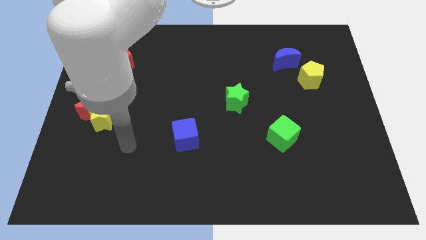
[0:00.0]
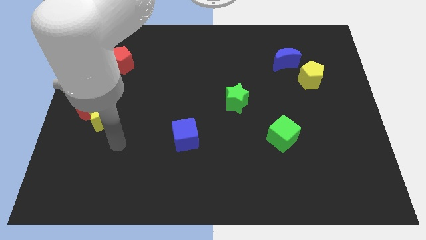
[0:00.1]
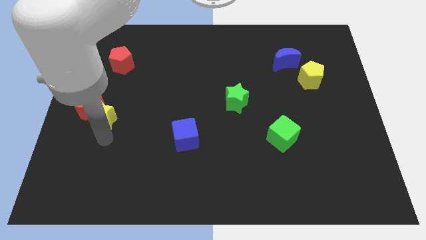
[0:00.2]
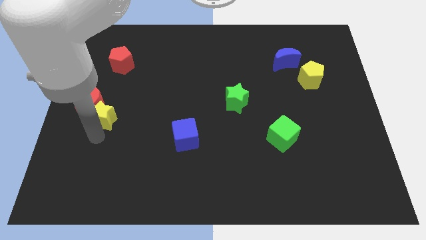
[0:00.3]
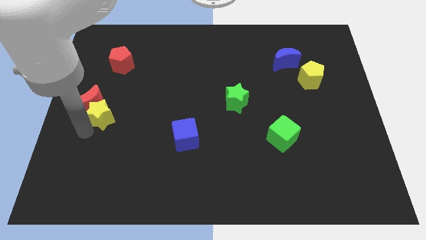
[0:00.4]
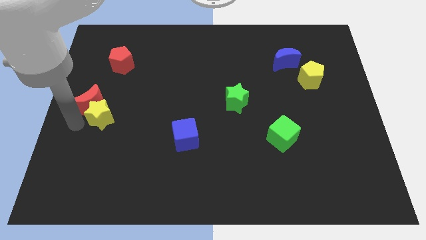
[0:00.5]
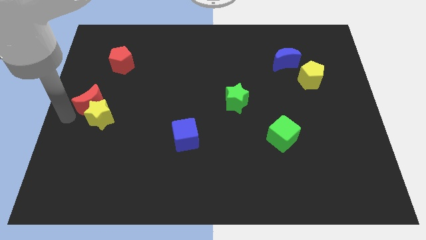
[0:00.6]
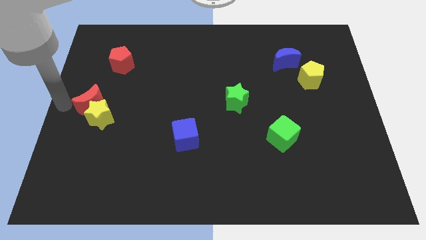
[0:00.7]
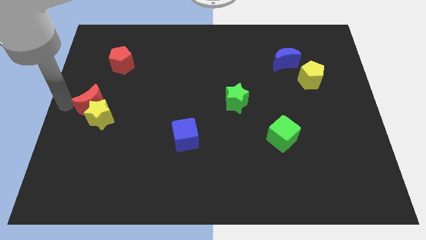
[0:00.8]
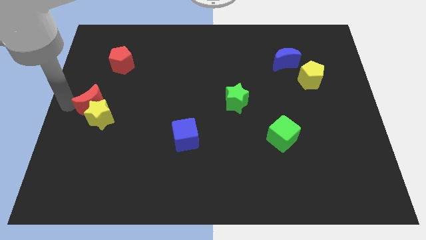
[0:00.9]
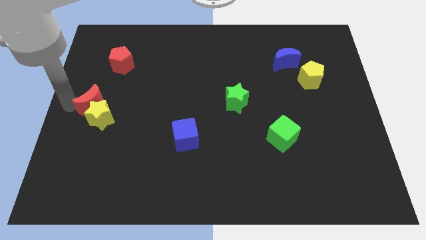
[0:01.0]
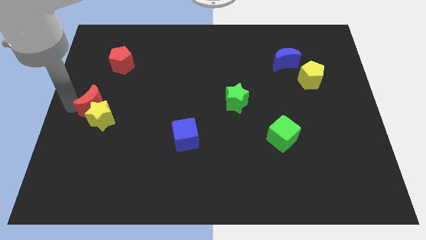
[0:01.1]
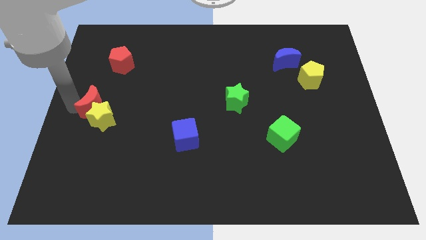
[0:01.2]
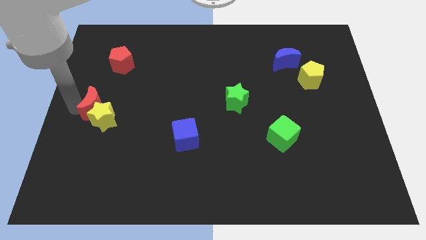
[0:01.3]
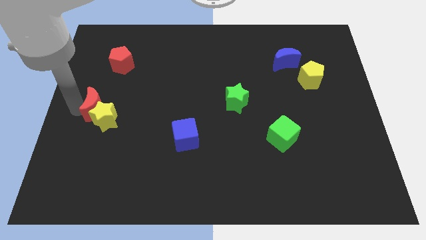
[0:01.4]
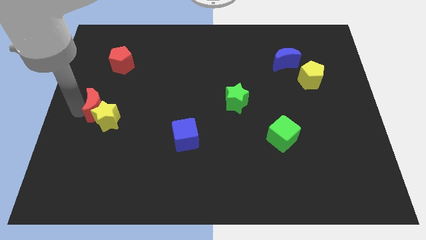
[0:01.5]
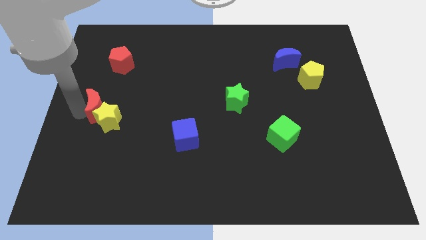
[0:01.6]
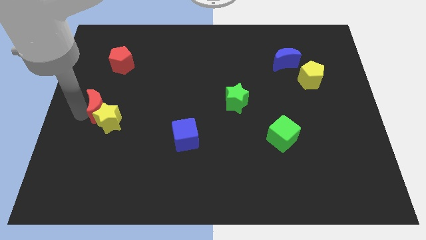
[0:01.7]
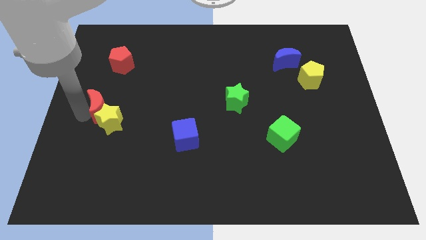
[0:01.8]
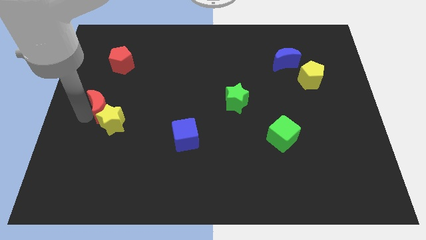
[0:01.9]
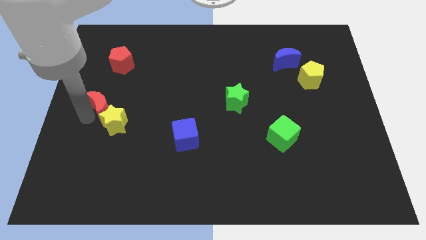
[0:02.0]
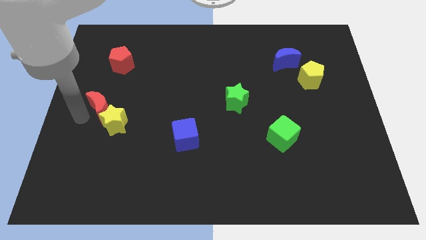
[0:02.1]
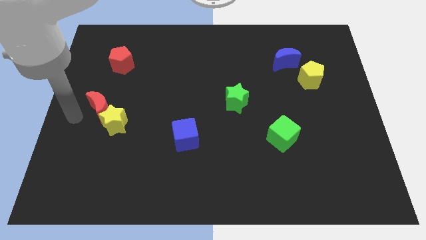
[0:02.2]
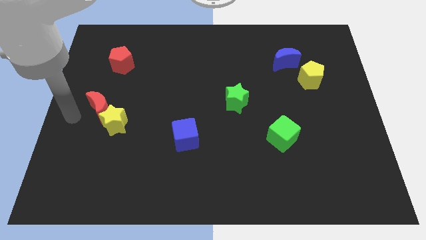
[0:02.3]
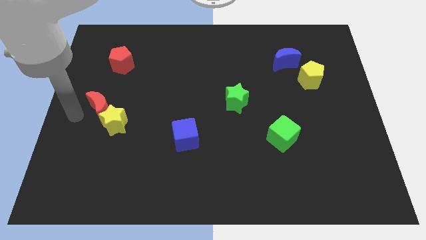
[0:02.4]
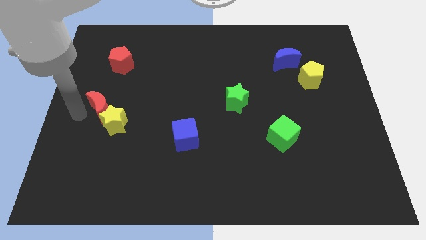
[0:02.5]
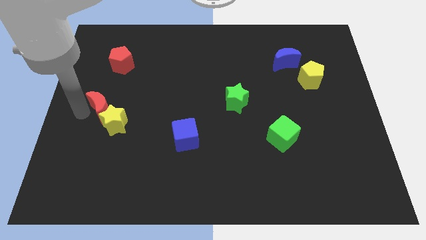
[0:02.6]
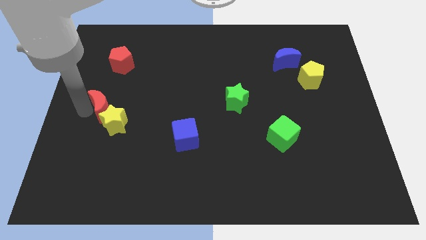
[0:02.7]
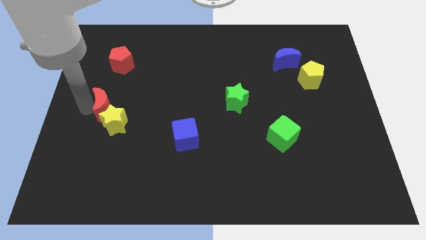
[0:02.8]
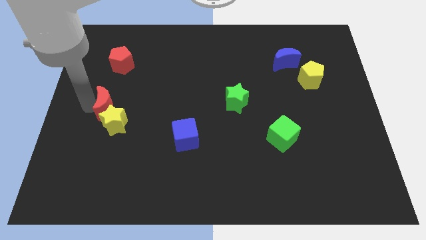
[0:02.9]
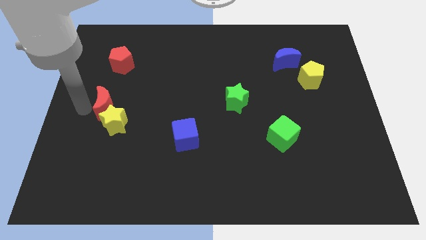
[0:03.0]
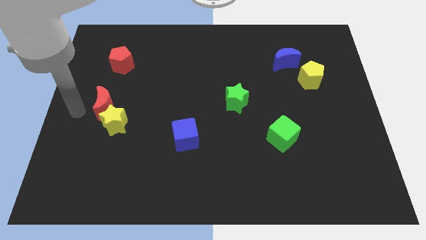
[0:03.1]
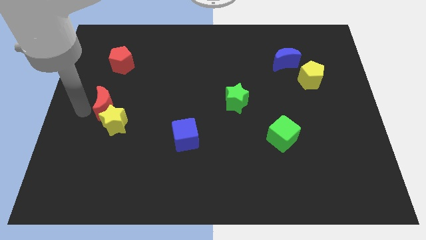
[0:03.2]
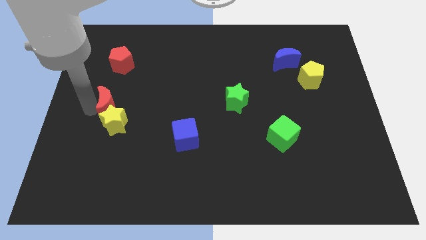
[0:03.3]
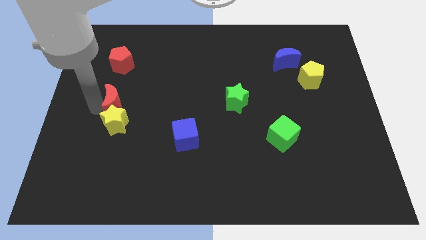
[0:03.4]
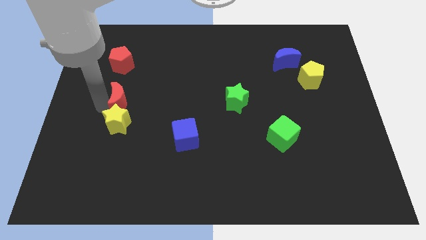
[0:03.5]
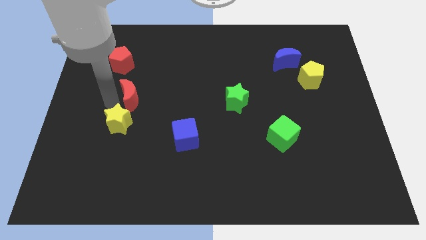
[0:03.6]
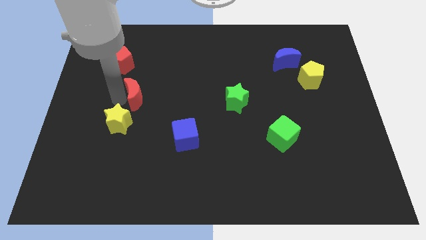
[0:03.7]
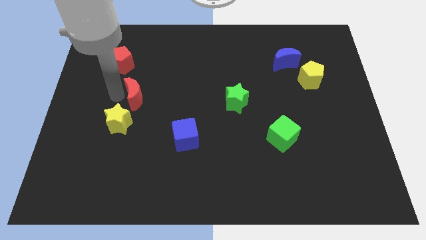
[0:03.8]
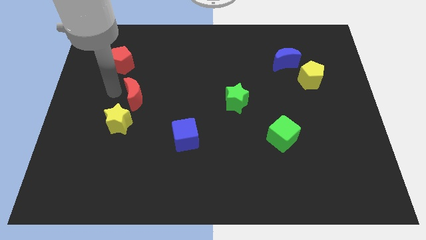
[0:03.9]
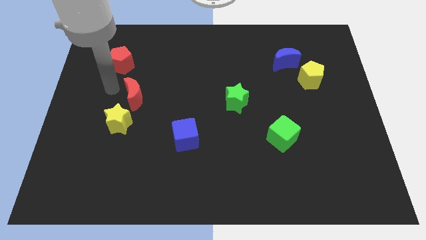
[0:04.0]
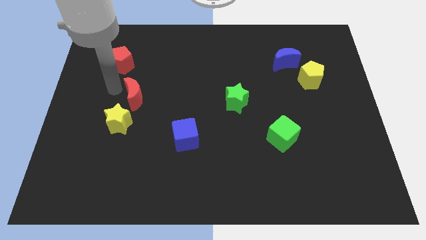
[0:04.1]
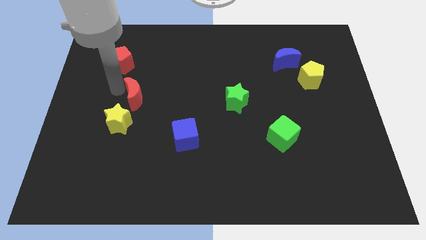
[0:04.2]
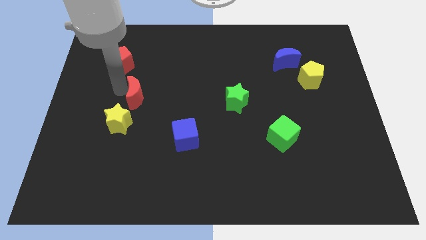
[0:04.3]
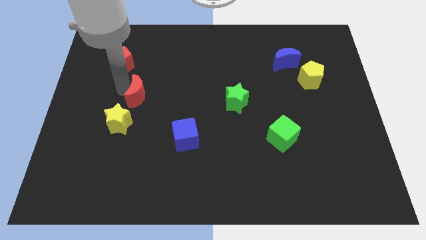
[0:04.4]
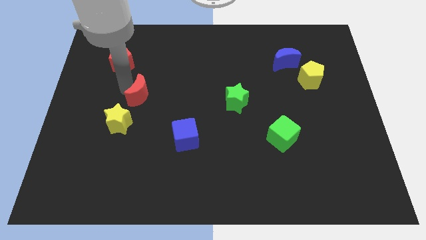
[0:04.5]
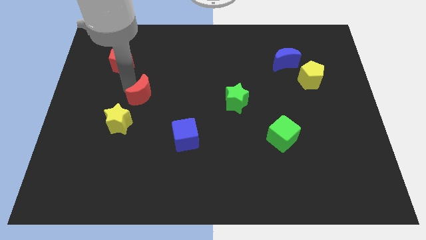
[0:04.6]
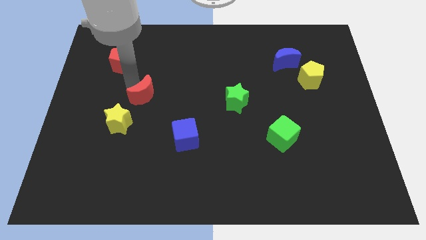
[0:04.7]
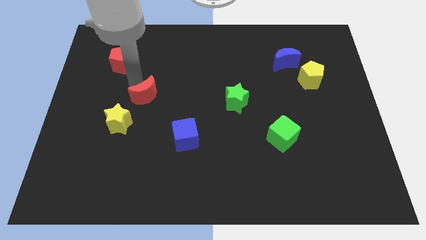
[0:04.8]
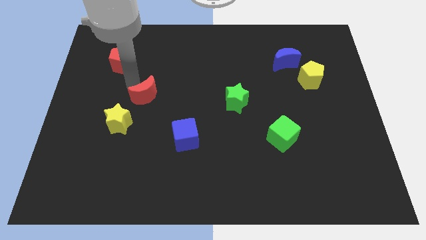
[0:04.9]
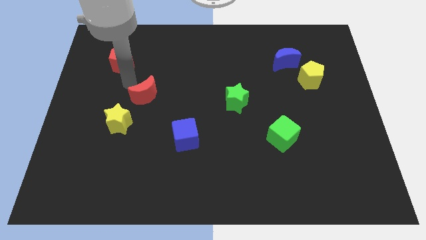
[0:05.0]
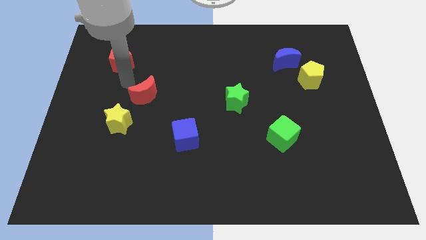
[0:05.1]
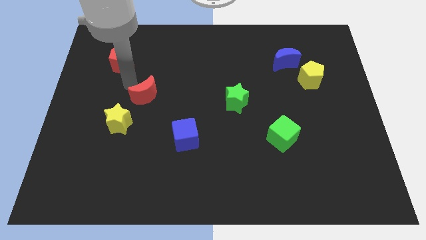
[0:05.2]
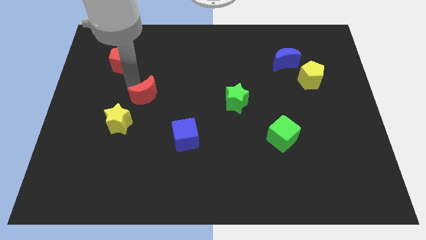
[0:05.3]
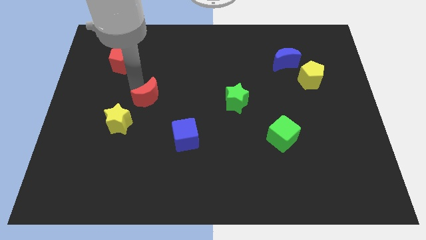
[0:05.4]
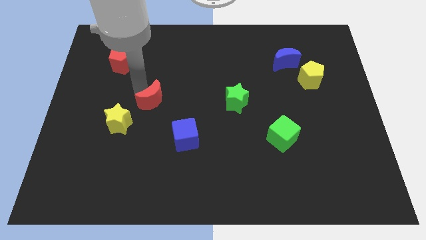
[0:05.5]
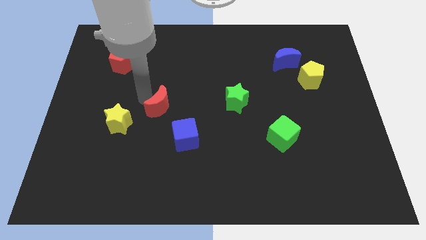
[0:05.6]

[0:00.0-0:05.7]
move the red moon to the center

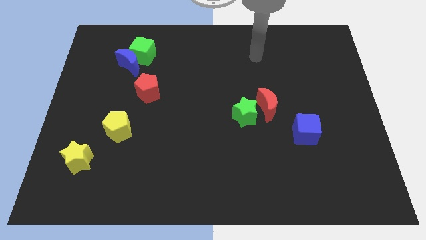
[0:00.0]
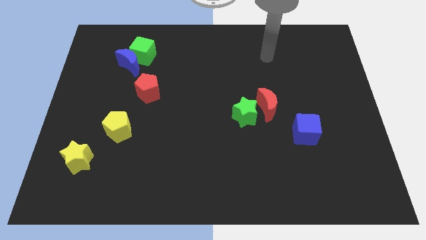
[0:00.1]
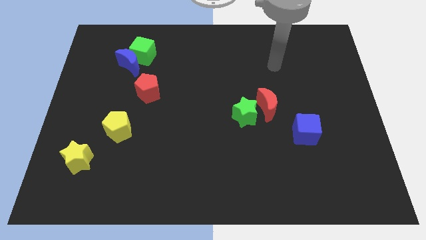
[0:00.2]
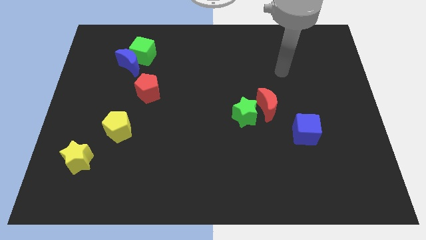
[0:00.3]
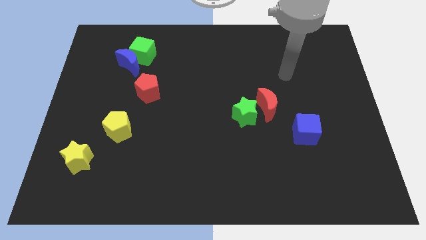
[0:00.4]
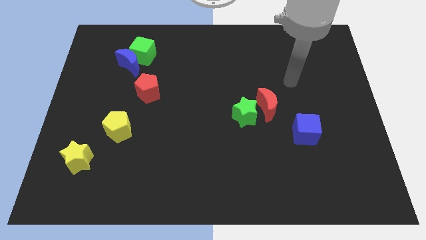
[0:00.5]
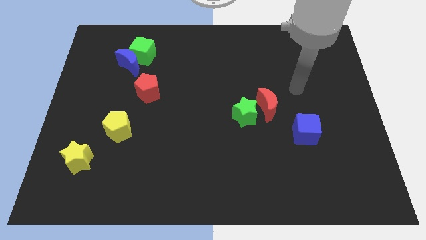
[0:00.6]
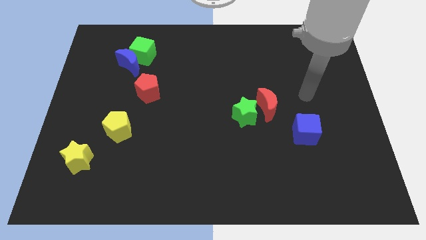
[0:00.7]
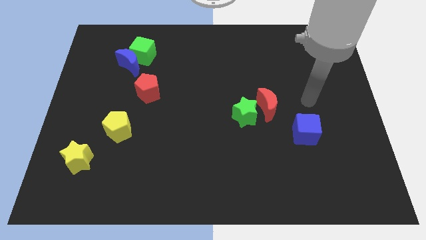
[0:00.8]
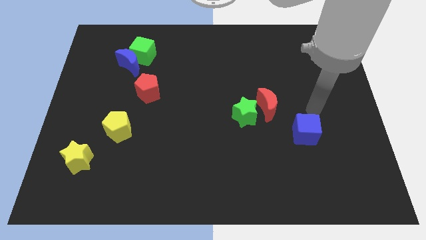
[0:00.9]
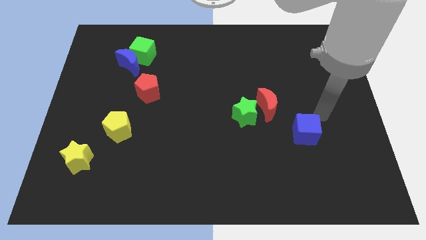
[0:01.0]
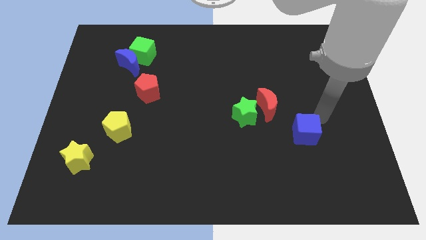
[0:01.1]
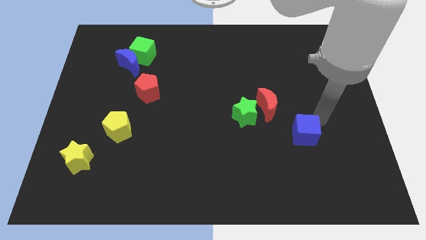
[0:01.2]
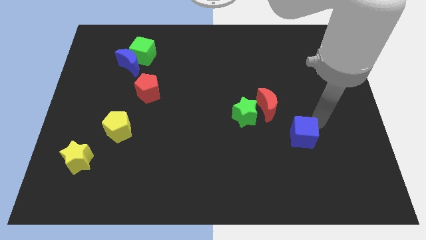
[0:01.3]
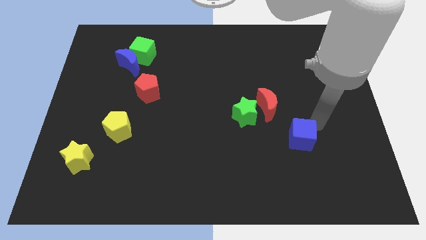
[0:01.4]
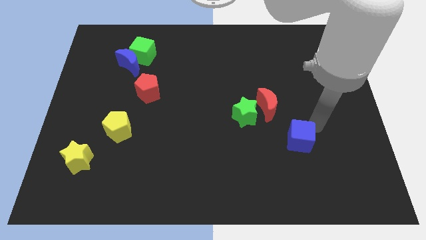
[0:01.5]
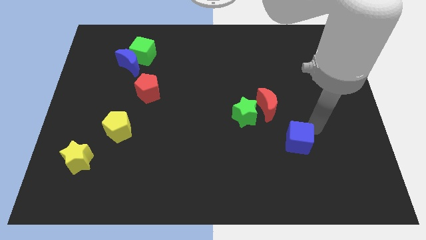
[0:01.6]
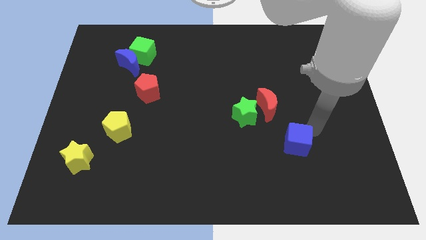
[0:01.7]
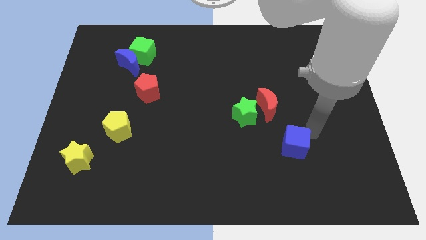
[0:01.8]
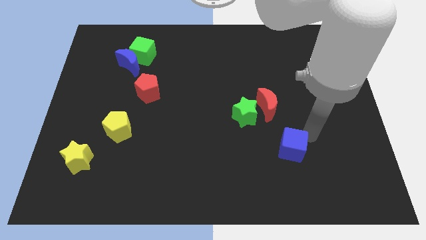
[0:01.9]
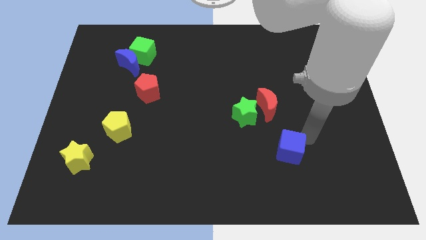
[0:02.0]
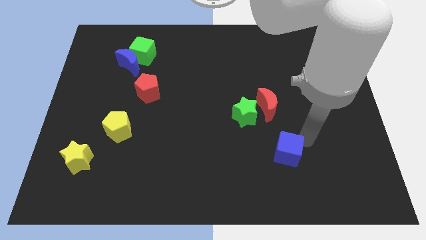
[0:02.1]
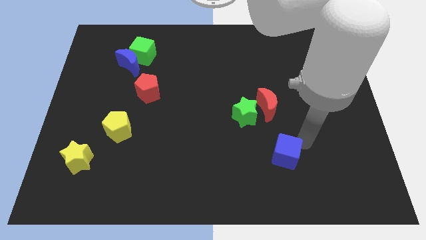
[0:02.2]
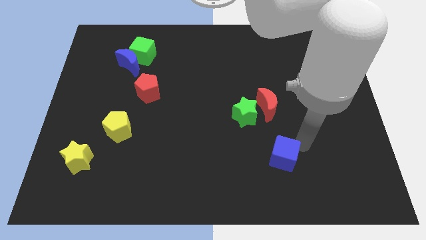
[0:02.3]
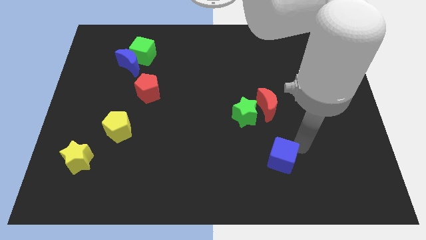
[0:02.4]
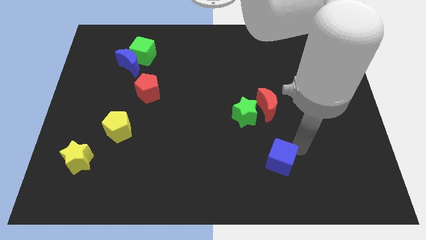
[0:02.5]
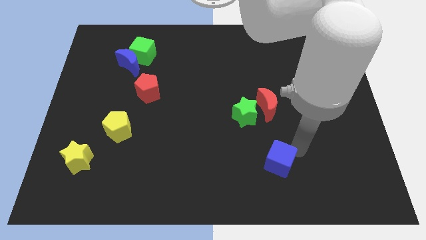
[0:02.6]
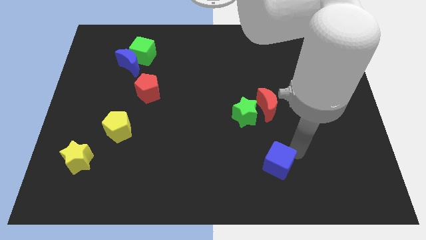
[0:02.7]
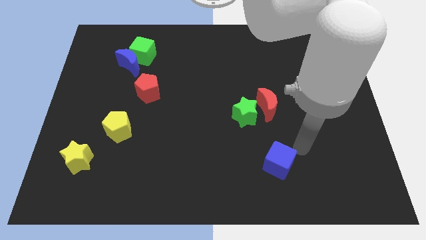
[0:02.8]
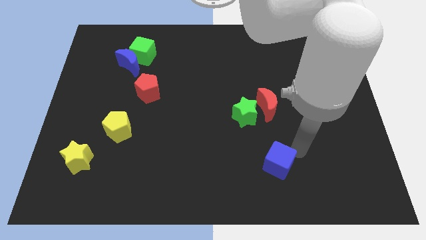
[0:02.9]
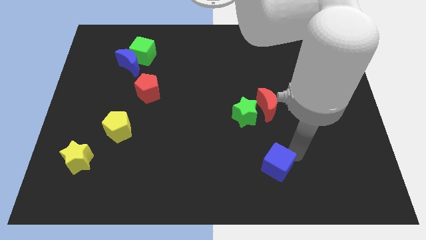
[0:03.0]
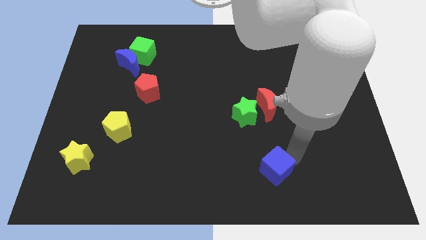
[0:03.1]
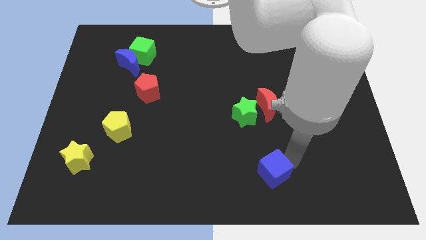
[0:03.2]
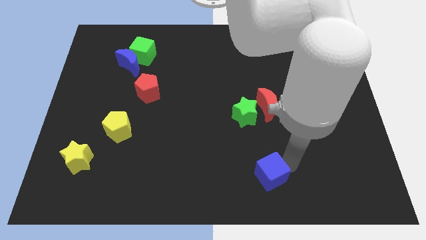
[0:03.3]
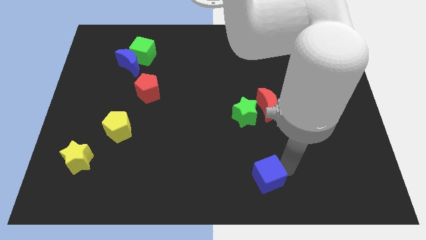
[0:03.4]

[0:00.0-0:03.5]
move the blue cube to the bottom
